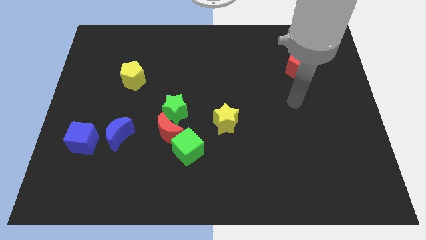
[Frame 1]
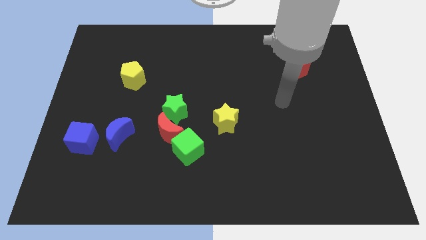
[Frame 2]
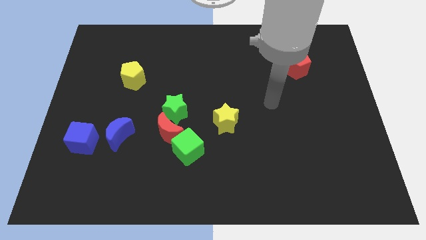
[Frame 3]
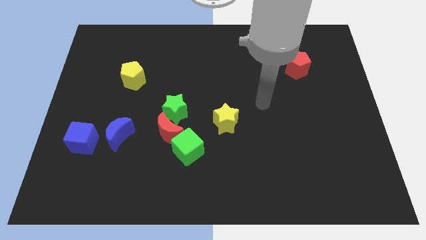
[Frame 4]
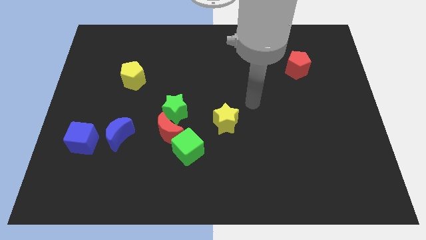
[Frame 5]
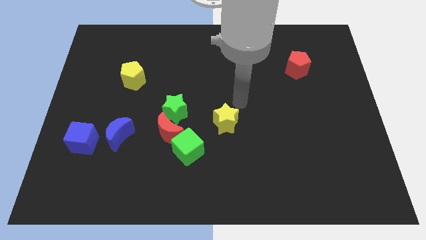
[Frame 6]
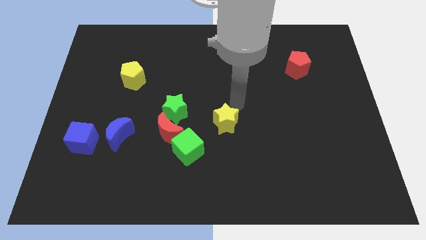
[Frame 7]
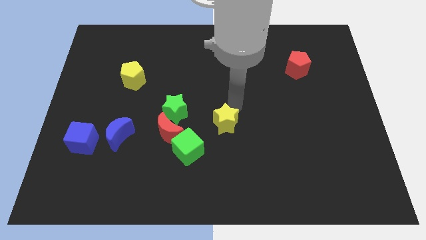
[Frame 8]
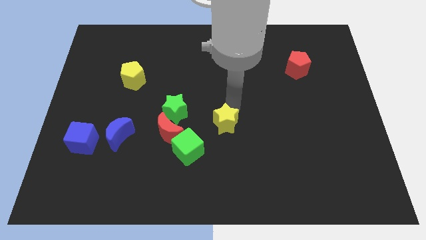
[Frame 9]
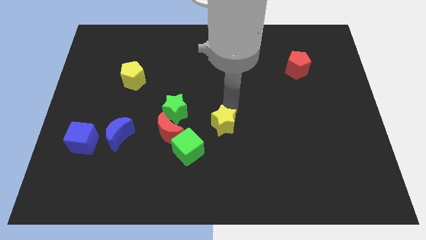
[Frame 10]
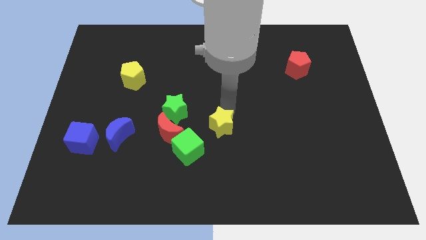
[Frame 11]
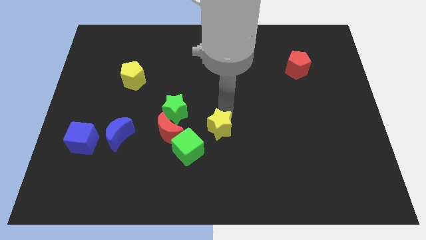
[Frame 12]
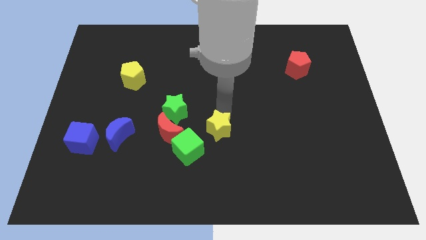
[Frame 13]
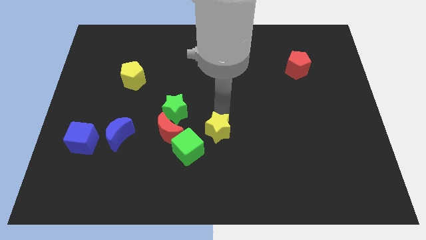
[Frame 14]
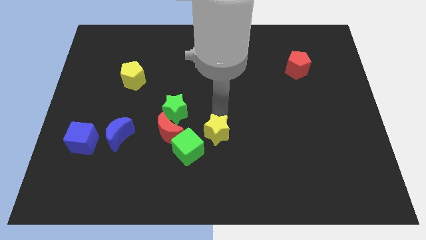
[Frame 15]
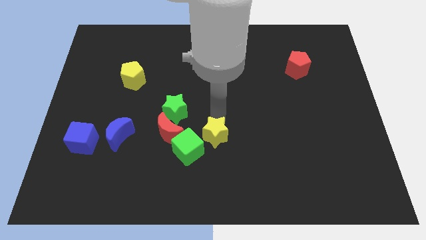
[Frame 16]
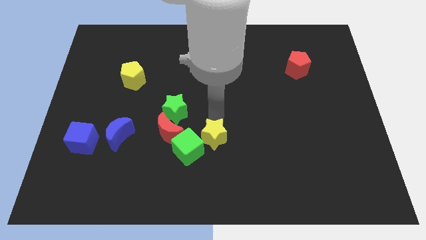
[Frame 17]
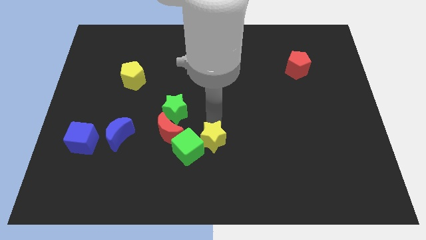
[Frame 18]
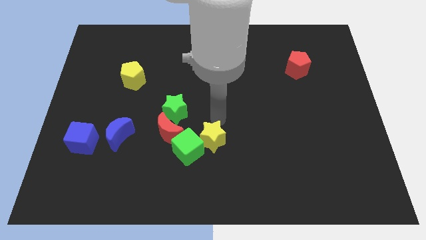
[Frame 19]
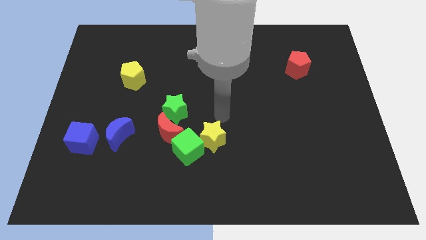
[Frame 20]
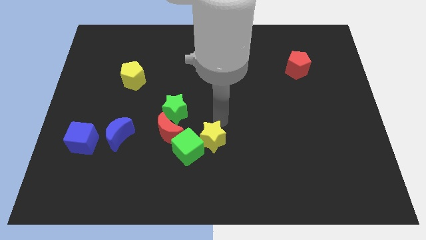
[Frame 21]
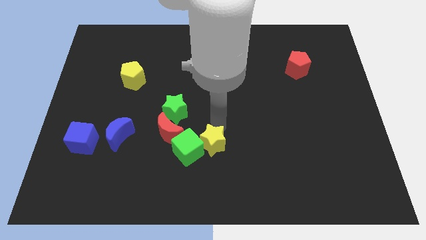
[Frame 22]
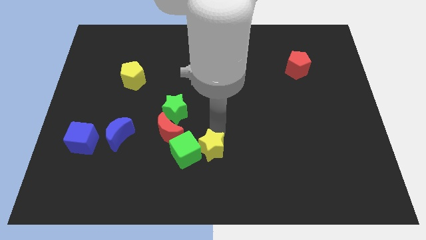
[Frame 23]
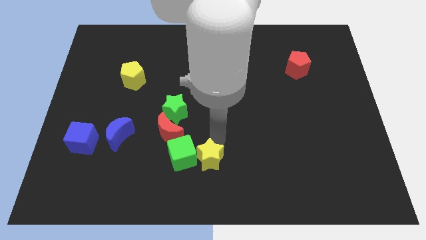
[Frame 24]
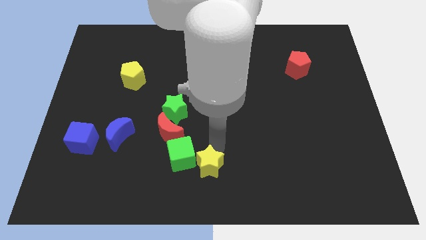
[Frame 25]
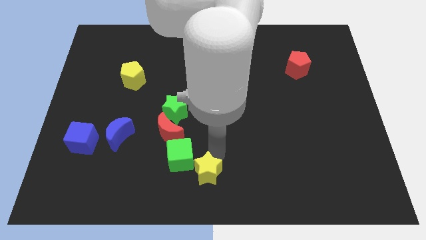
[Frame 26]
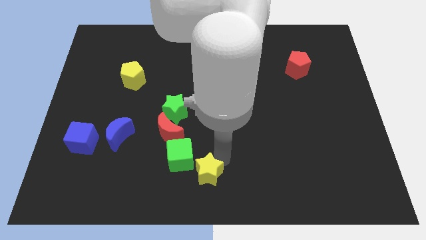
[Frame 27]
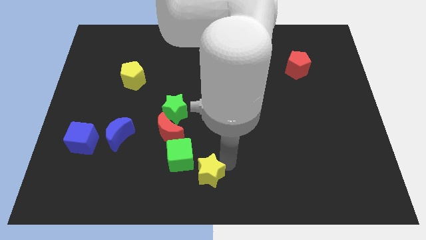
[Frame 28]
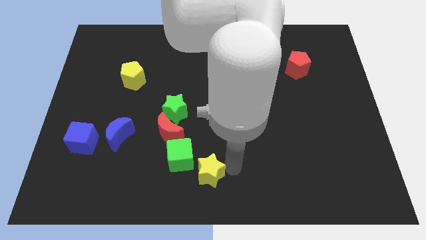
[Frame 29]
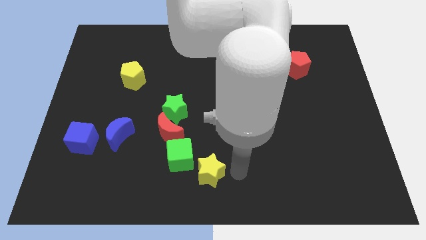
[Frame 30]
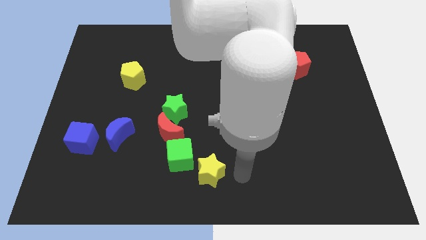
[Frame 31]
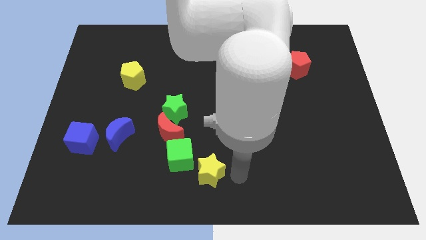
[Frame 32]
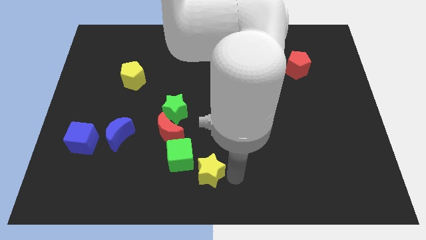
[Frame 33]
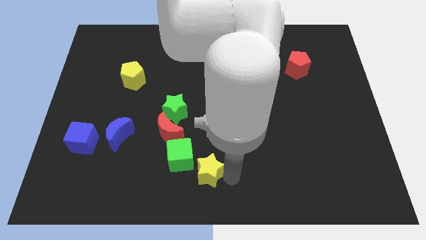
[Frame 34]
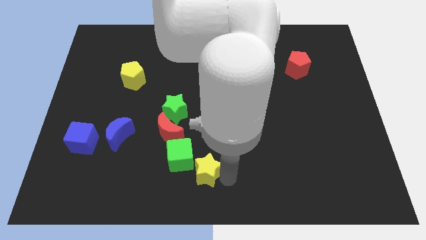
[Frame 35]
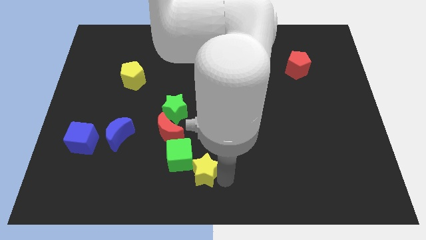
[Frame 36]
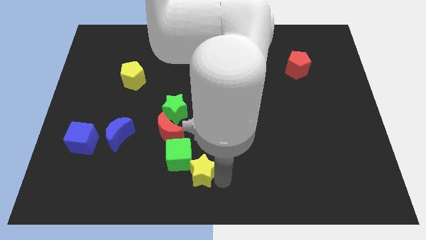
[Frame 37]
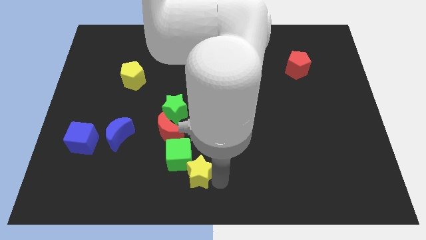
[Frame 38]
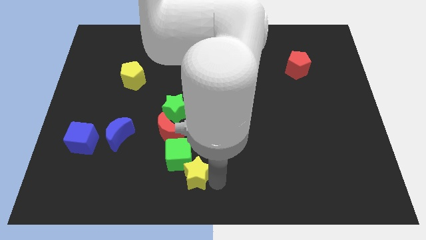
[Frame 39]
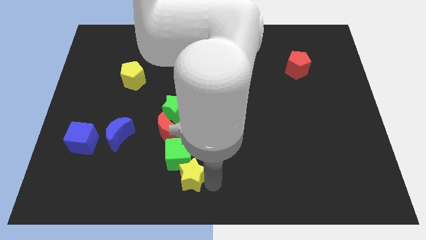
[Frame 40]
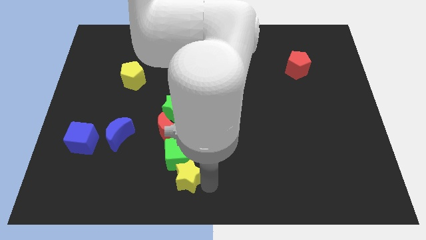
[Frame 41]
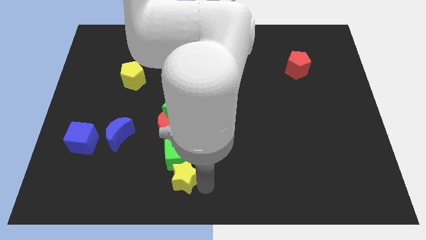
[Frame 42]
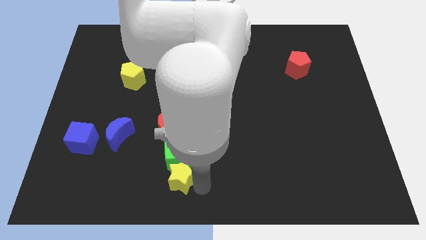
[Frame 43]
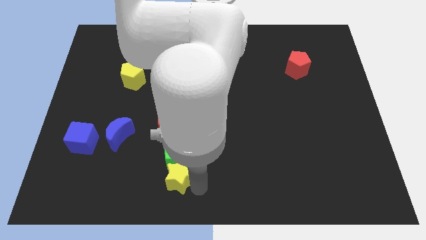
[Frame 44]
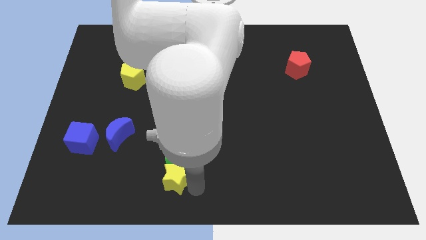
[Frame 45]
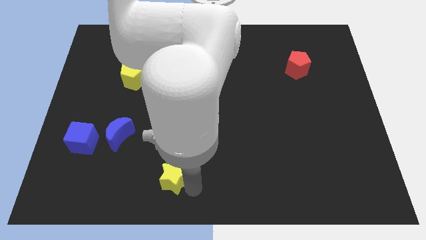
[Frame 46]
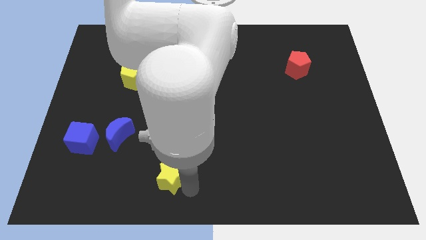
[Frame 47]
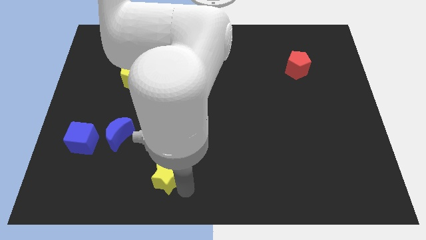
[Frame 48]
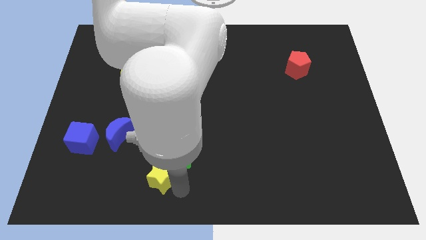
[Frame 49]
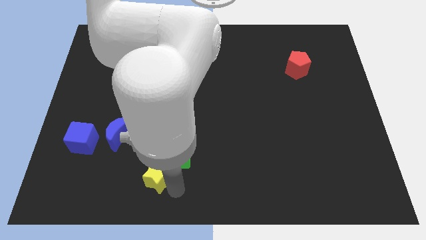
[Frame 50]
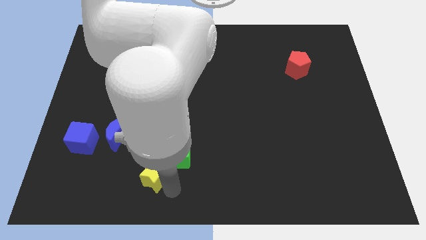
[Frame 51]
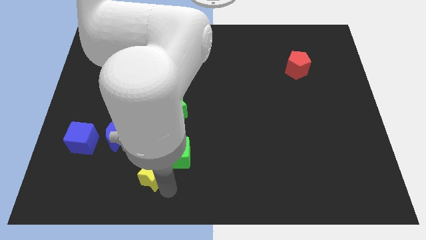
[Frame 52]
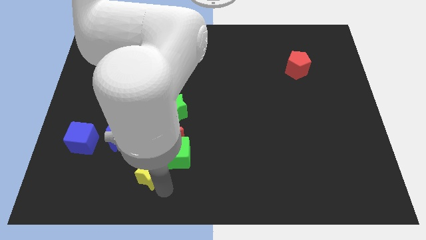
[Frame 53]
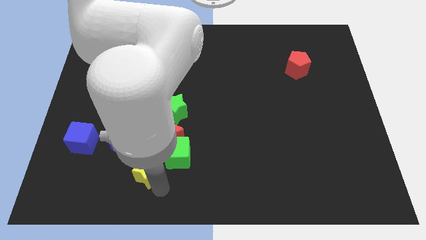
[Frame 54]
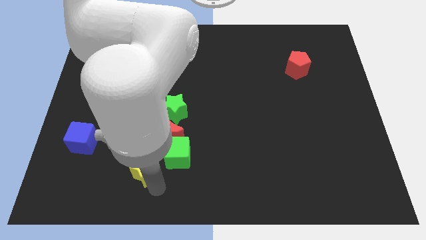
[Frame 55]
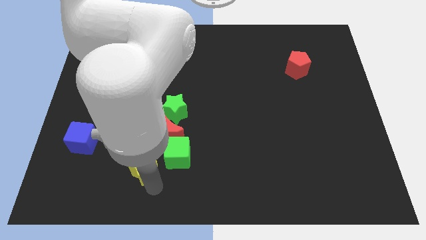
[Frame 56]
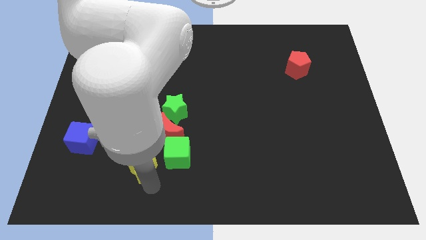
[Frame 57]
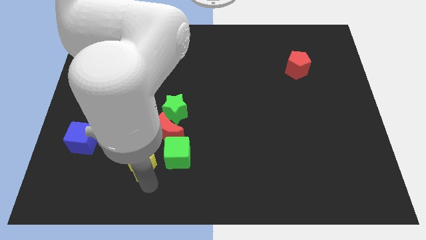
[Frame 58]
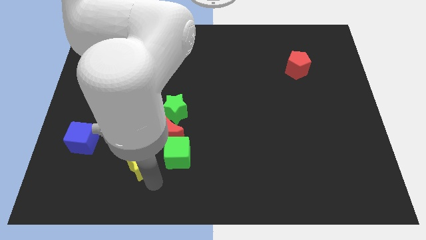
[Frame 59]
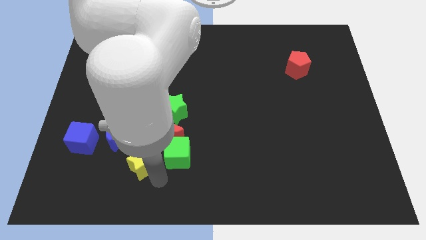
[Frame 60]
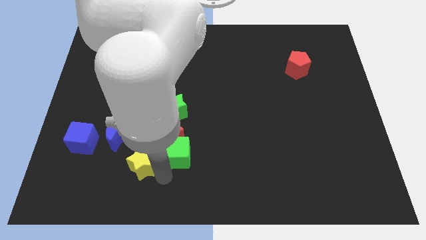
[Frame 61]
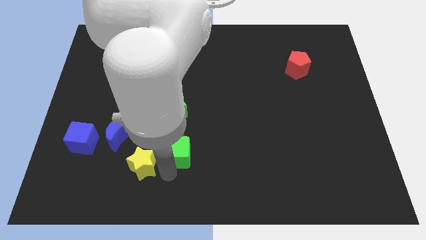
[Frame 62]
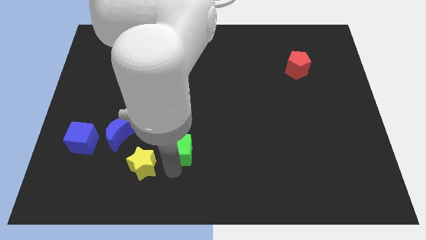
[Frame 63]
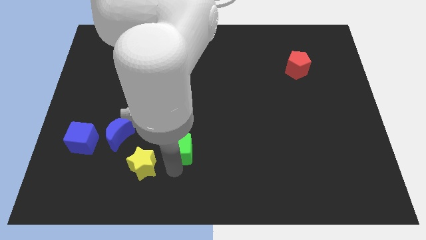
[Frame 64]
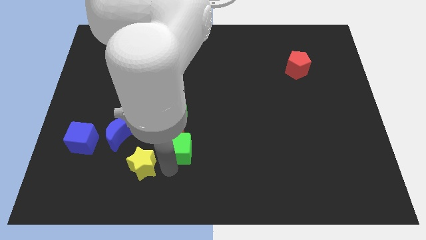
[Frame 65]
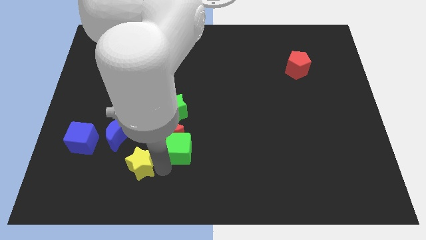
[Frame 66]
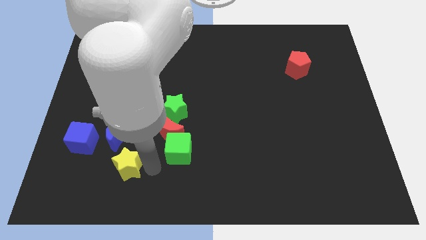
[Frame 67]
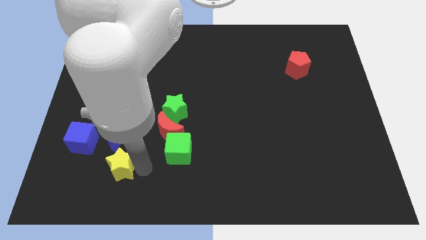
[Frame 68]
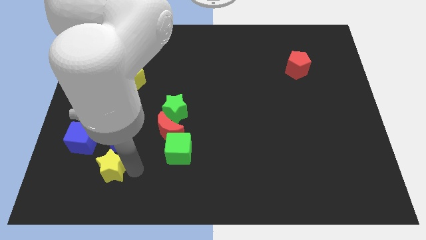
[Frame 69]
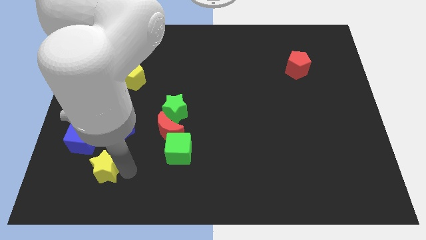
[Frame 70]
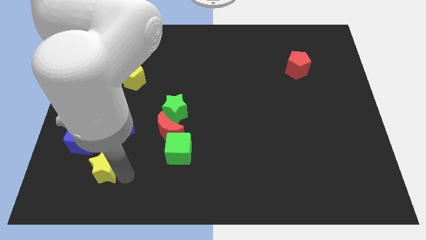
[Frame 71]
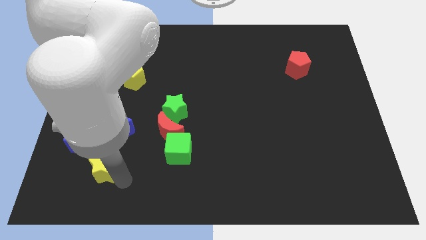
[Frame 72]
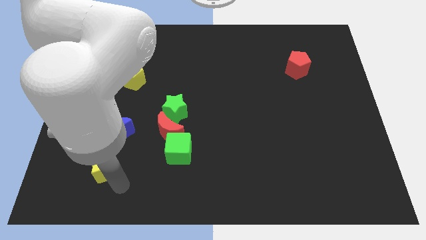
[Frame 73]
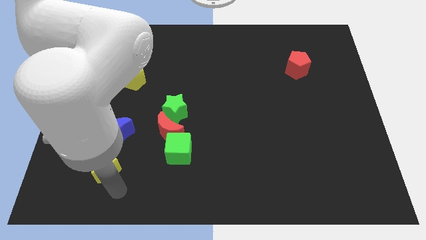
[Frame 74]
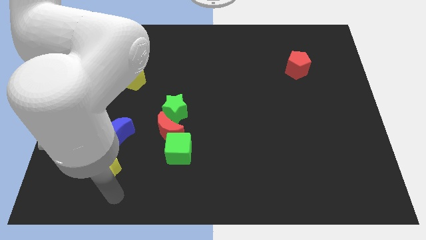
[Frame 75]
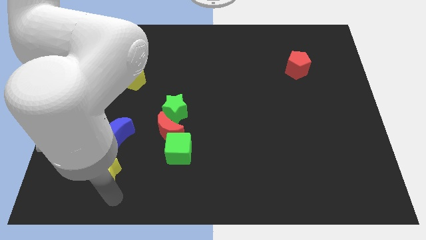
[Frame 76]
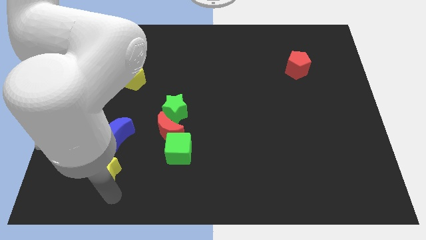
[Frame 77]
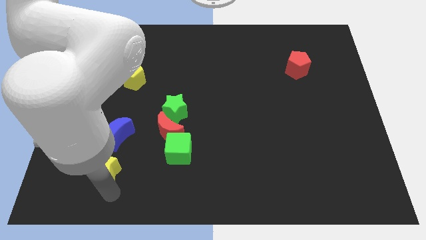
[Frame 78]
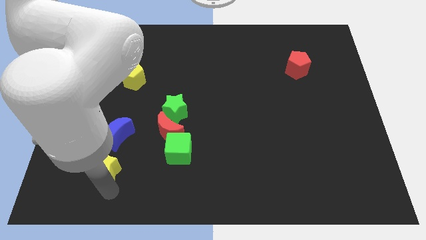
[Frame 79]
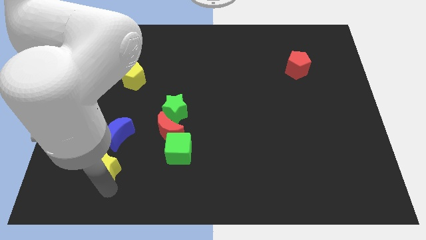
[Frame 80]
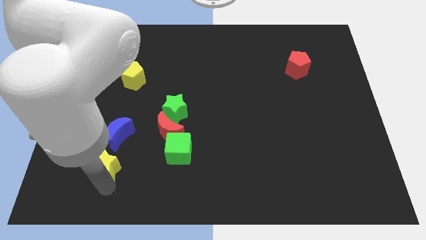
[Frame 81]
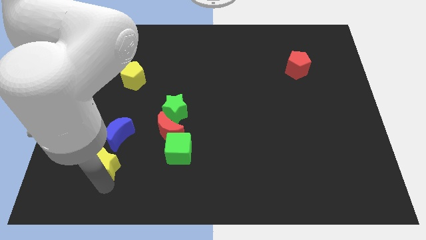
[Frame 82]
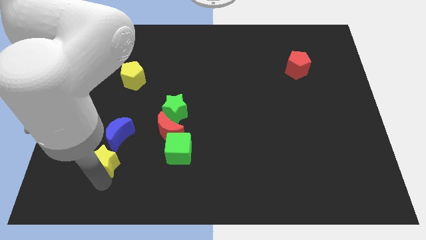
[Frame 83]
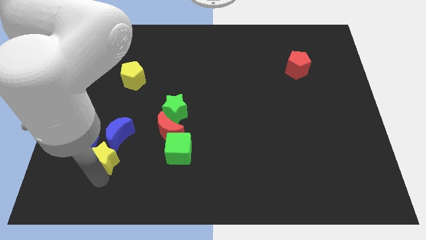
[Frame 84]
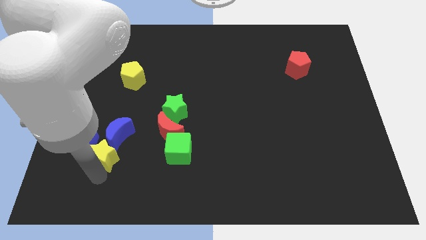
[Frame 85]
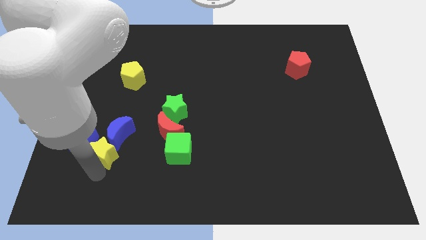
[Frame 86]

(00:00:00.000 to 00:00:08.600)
slide the yellow star close to the blue cube

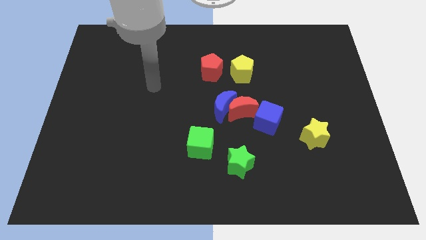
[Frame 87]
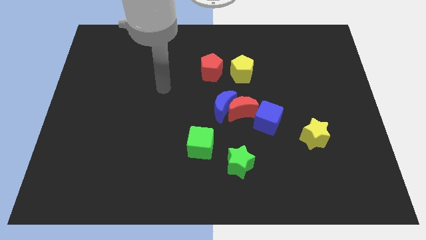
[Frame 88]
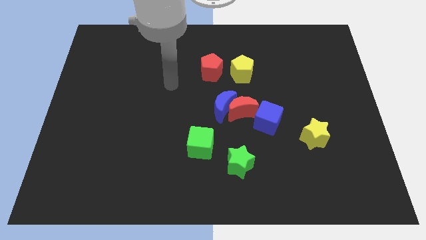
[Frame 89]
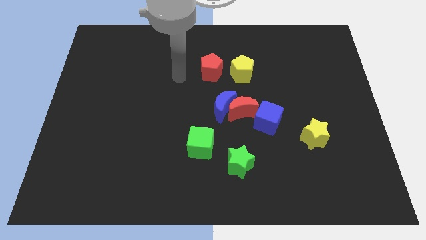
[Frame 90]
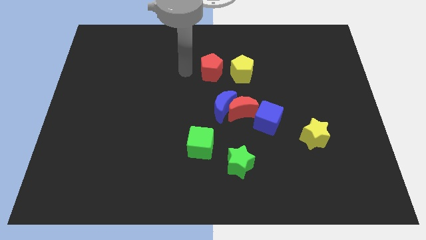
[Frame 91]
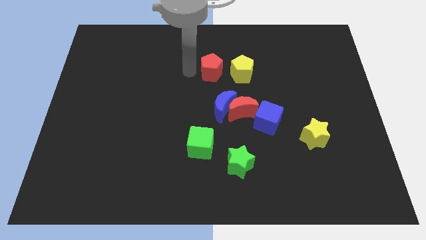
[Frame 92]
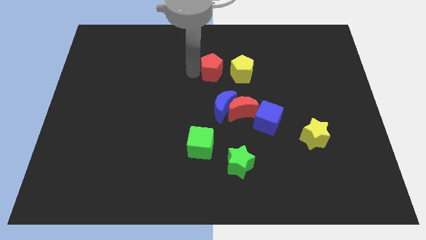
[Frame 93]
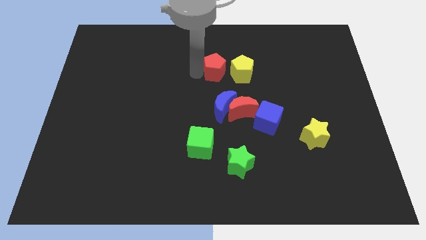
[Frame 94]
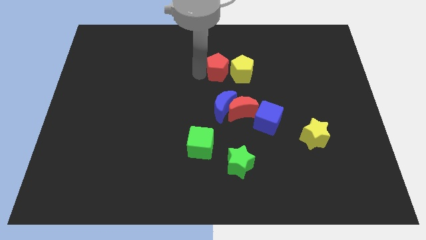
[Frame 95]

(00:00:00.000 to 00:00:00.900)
put the red pentagon close to the yellow pentagon
